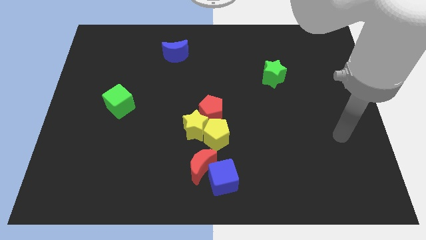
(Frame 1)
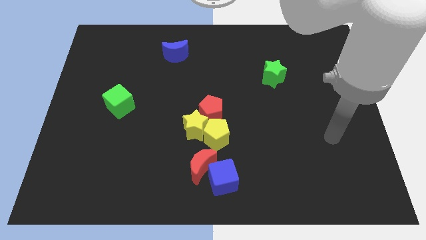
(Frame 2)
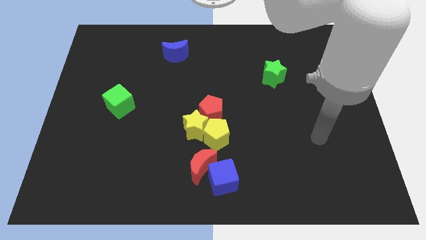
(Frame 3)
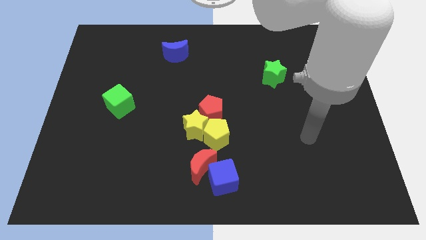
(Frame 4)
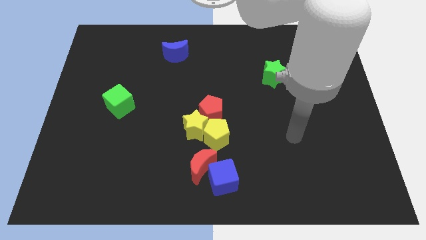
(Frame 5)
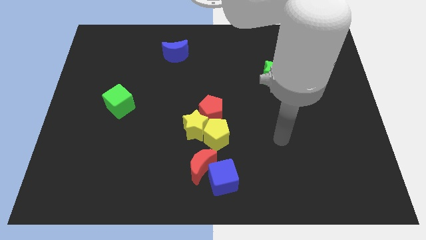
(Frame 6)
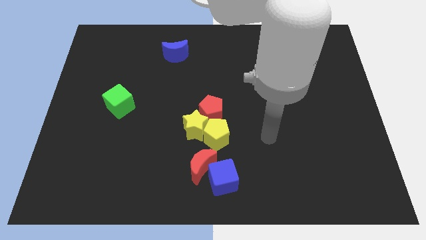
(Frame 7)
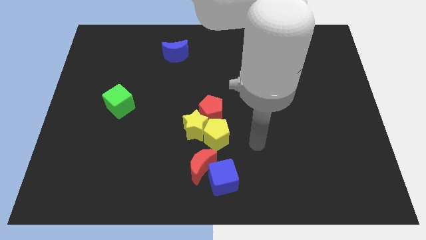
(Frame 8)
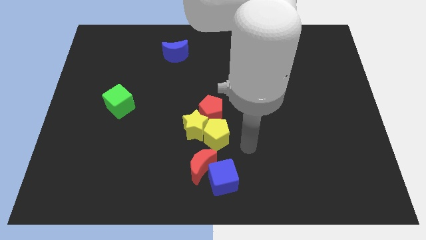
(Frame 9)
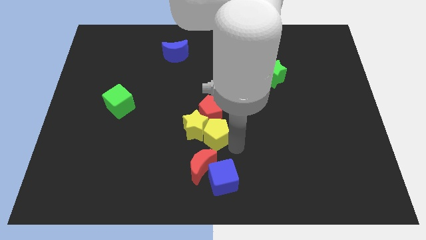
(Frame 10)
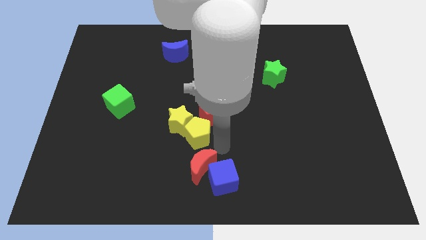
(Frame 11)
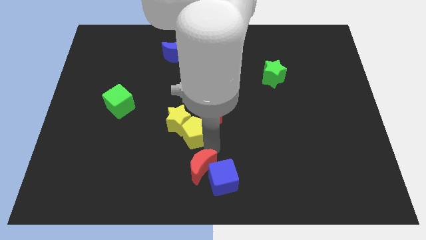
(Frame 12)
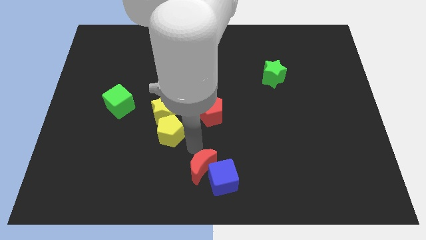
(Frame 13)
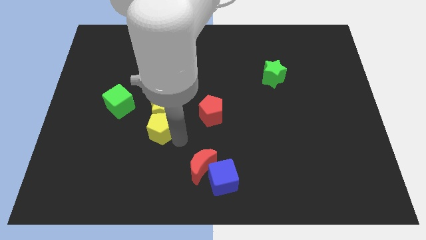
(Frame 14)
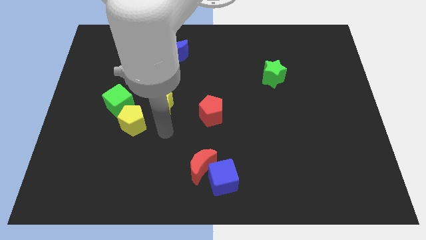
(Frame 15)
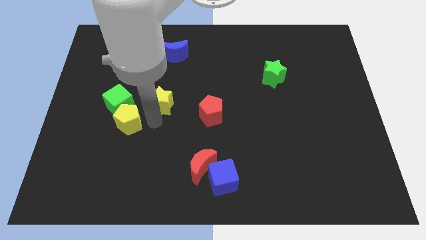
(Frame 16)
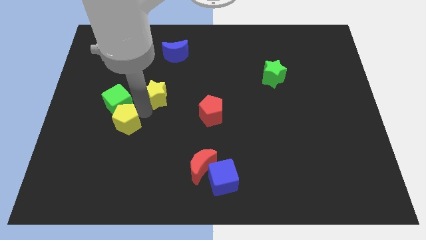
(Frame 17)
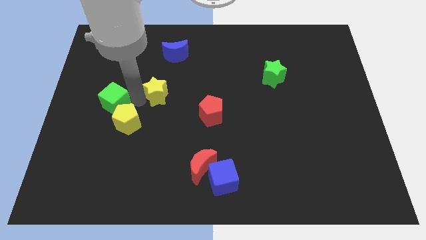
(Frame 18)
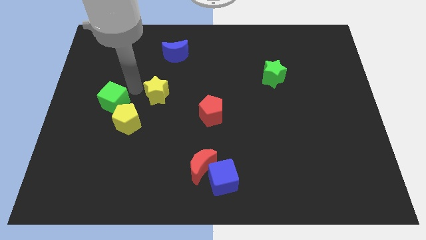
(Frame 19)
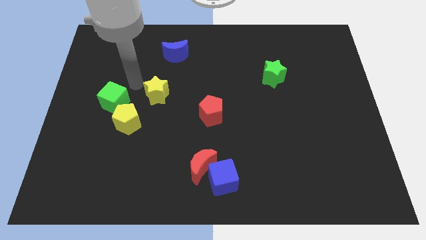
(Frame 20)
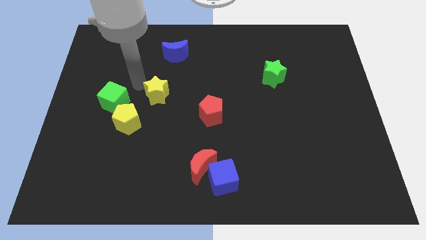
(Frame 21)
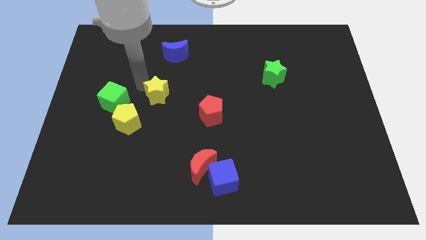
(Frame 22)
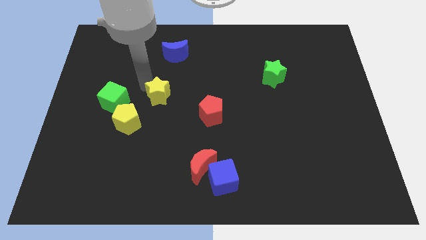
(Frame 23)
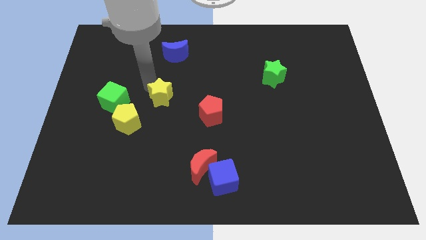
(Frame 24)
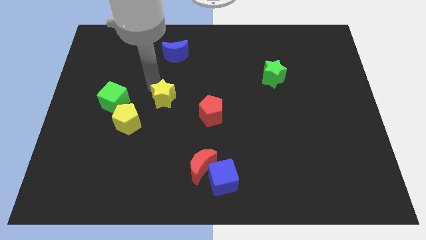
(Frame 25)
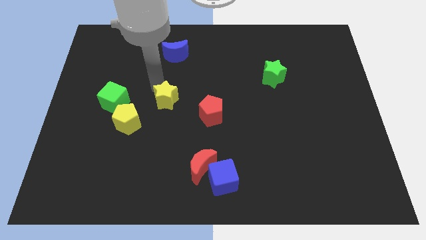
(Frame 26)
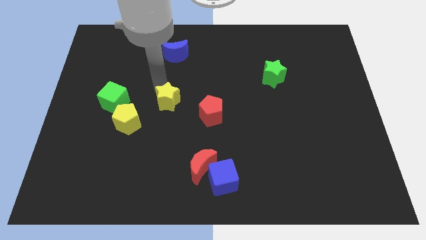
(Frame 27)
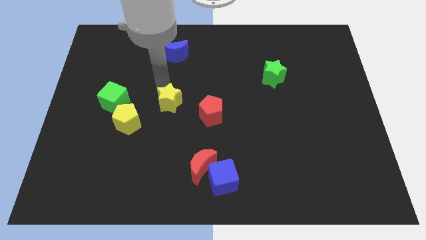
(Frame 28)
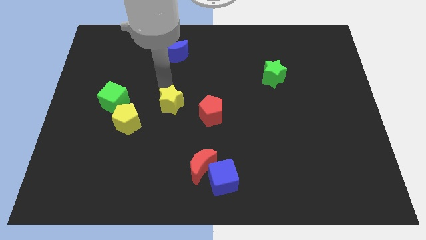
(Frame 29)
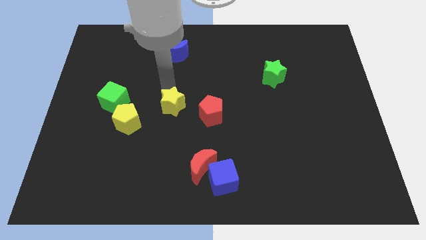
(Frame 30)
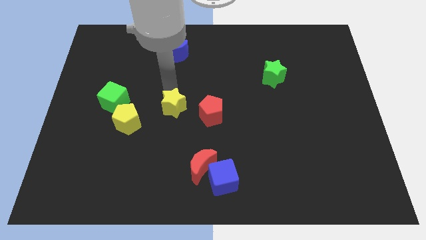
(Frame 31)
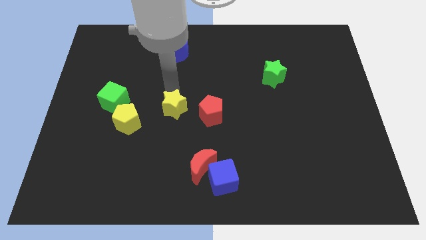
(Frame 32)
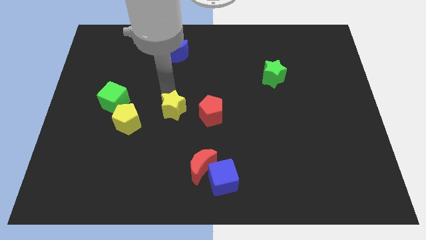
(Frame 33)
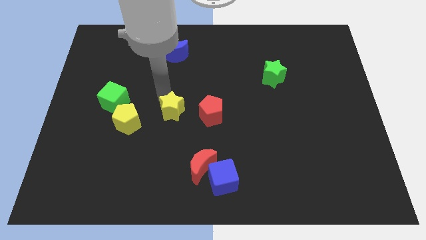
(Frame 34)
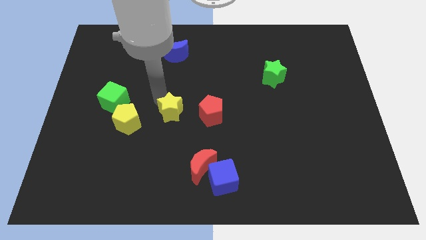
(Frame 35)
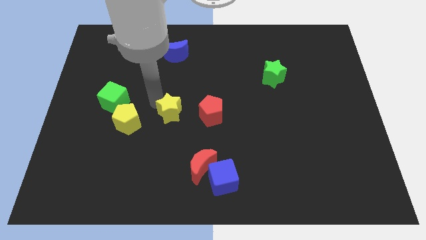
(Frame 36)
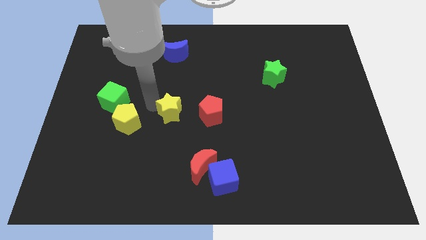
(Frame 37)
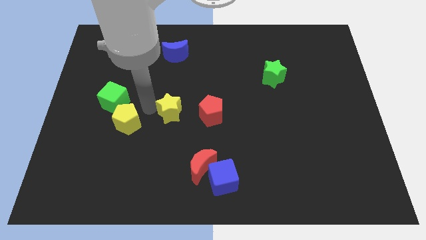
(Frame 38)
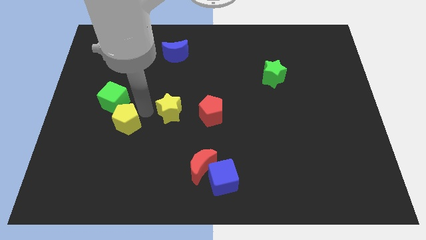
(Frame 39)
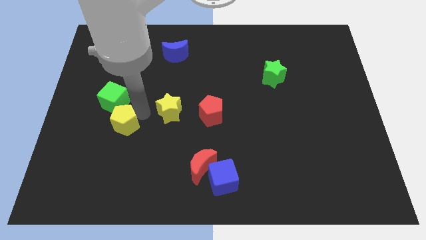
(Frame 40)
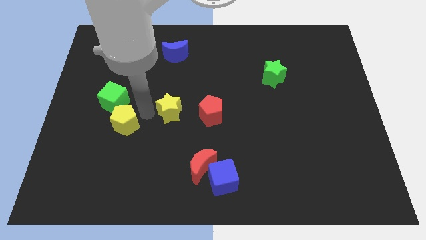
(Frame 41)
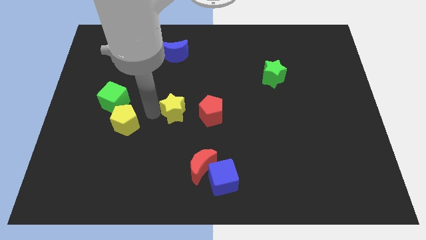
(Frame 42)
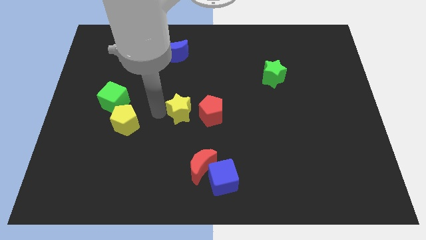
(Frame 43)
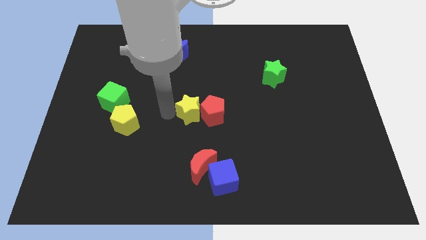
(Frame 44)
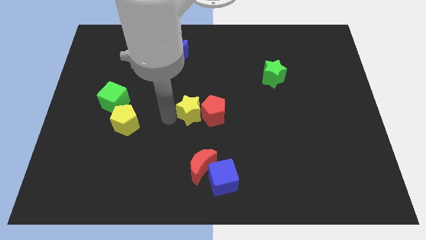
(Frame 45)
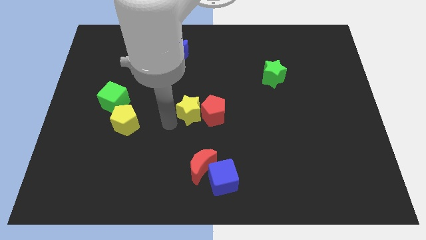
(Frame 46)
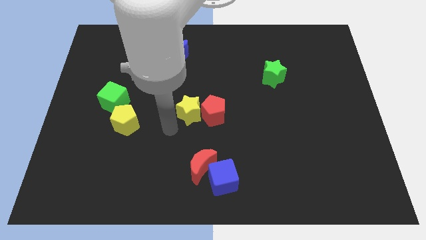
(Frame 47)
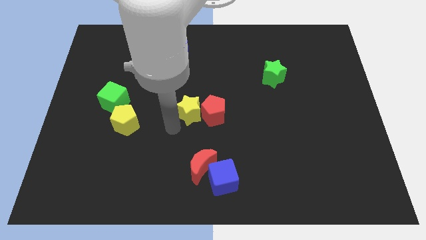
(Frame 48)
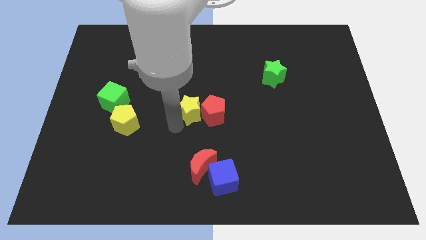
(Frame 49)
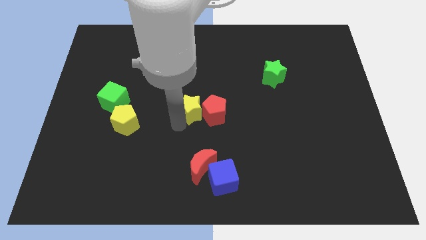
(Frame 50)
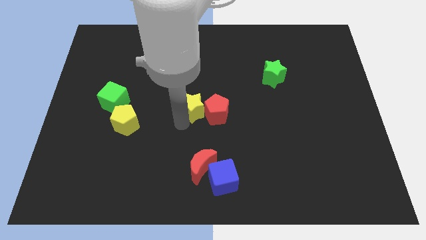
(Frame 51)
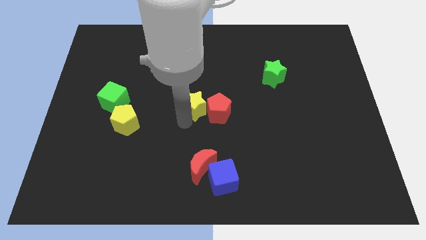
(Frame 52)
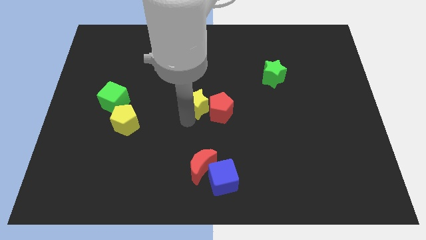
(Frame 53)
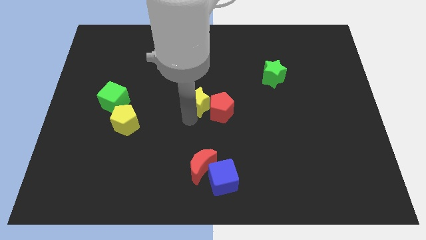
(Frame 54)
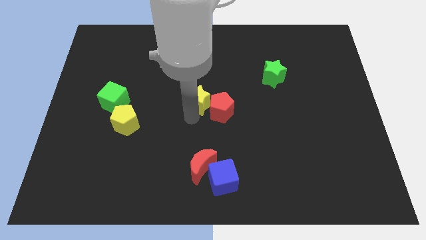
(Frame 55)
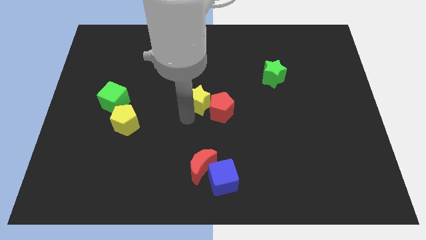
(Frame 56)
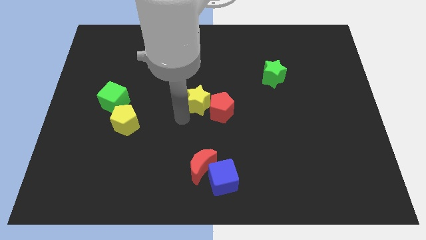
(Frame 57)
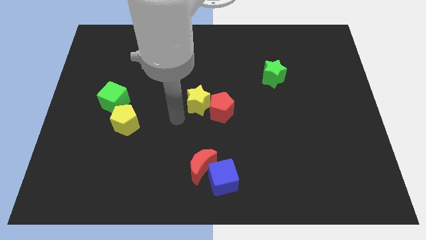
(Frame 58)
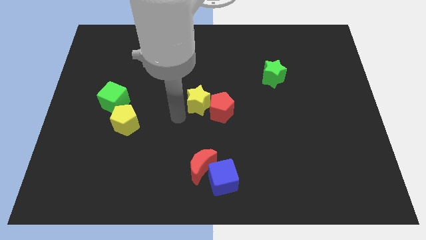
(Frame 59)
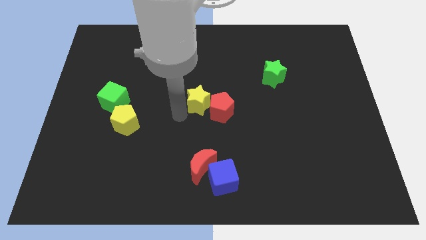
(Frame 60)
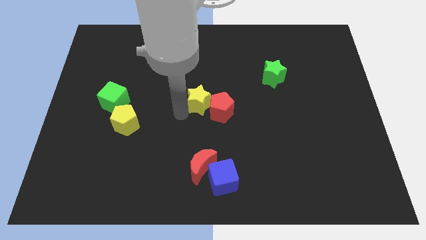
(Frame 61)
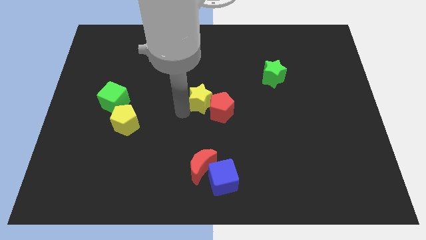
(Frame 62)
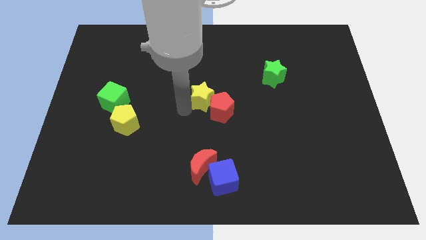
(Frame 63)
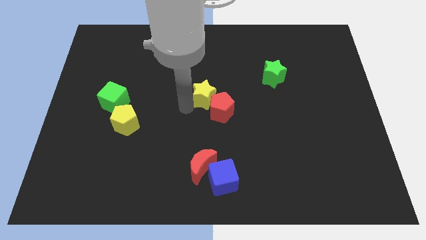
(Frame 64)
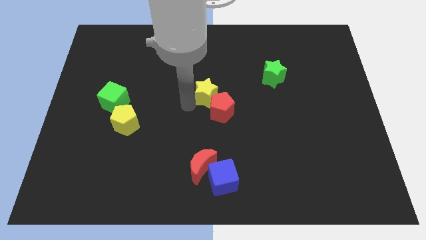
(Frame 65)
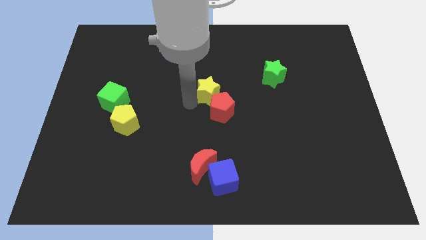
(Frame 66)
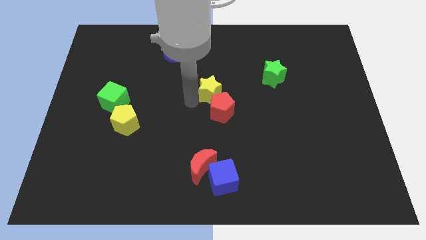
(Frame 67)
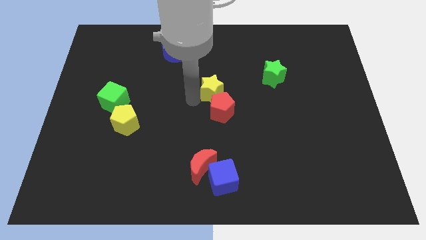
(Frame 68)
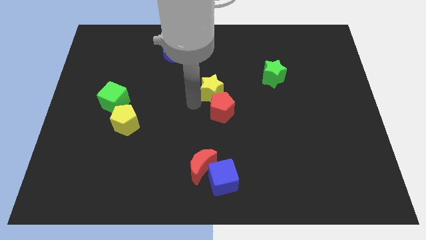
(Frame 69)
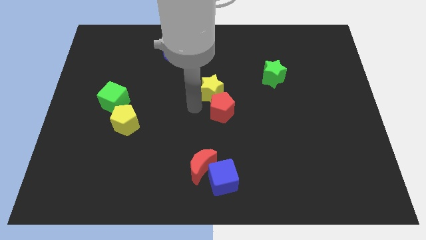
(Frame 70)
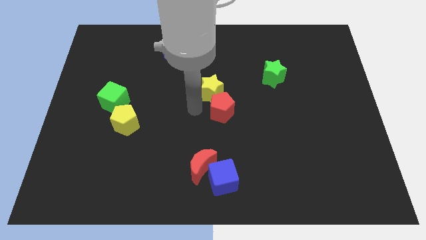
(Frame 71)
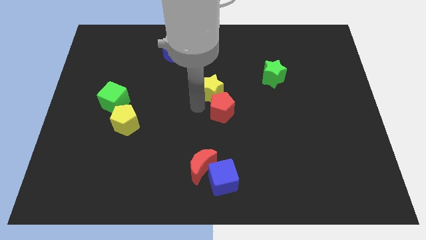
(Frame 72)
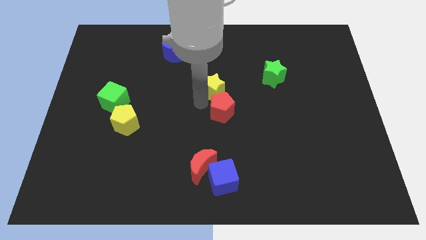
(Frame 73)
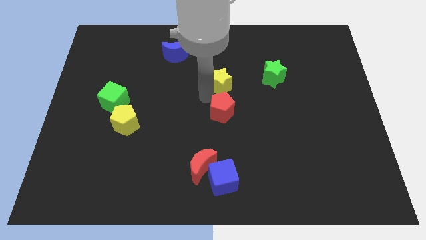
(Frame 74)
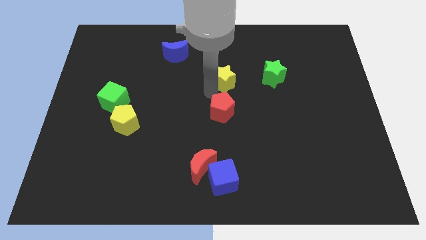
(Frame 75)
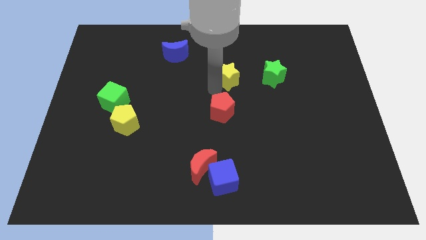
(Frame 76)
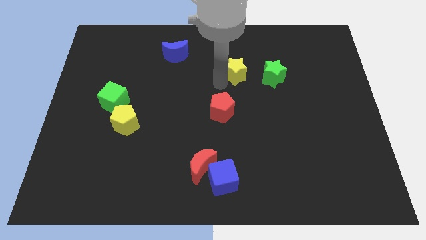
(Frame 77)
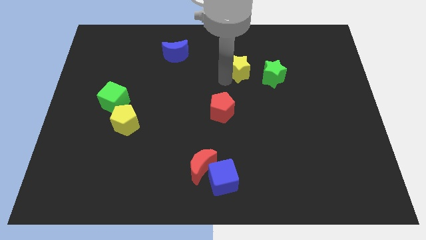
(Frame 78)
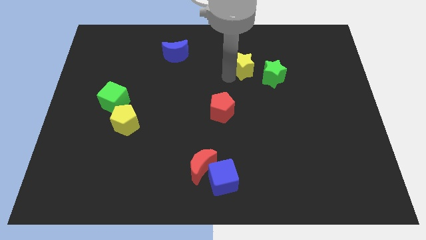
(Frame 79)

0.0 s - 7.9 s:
push the yellow star diagonally upwards and to the right

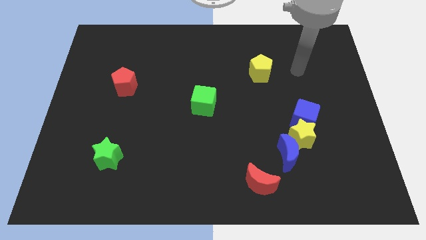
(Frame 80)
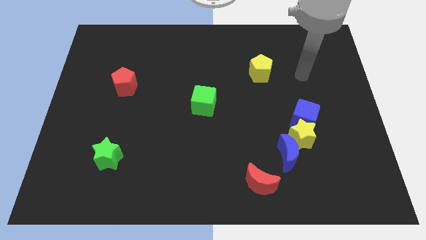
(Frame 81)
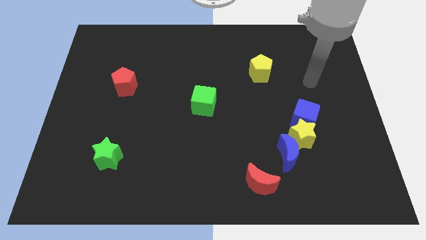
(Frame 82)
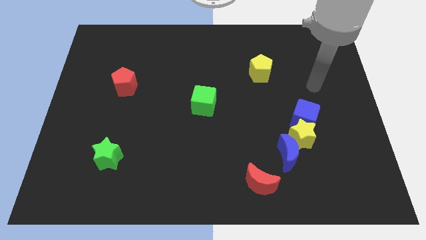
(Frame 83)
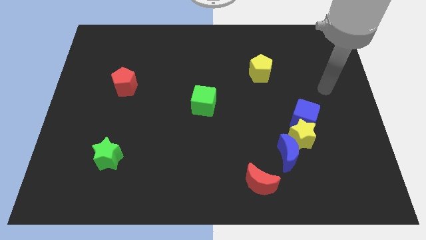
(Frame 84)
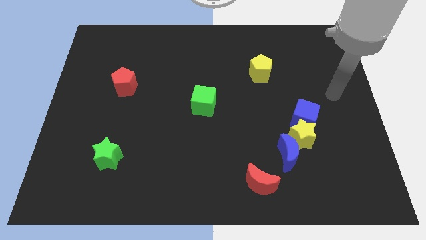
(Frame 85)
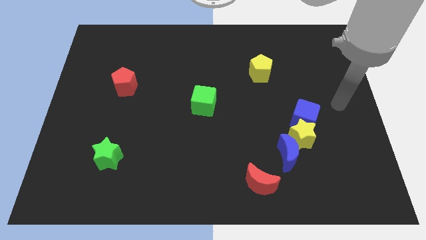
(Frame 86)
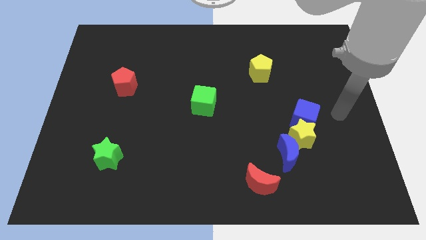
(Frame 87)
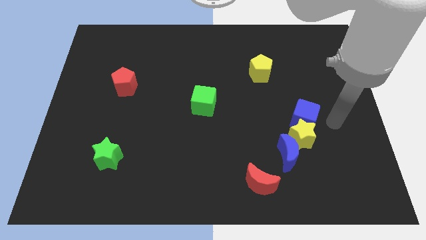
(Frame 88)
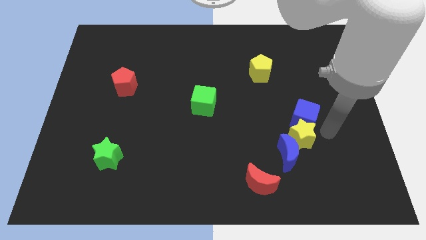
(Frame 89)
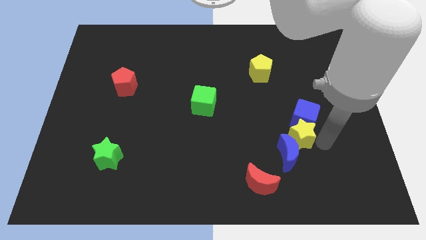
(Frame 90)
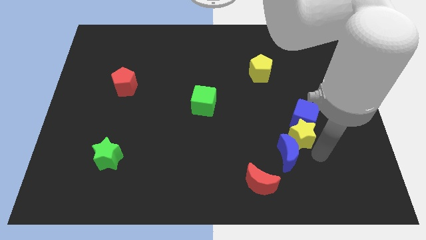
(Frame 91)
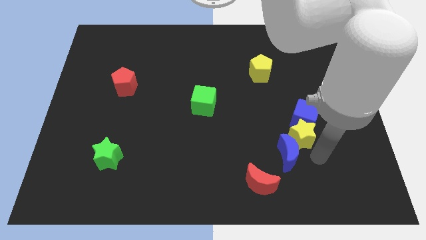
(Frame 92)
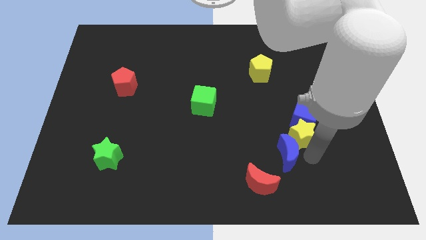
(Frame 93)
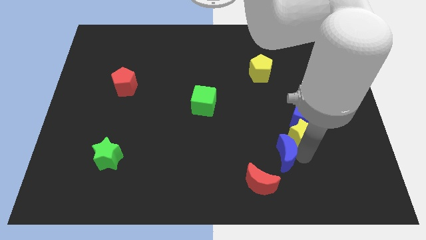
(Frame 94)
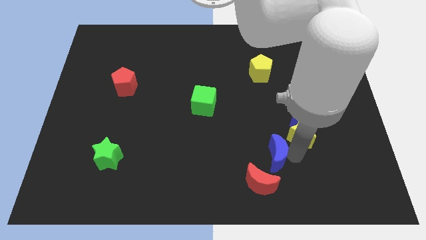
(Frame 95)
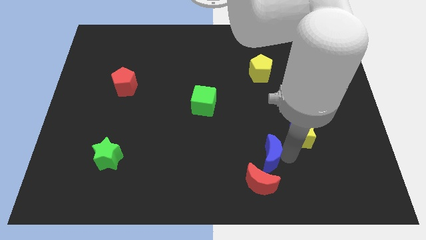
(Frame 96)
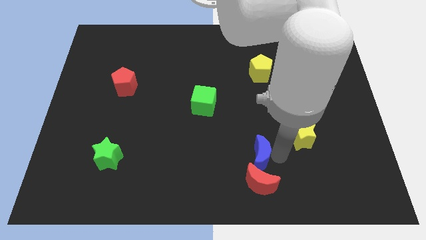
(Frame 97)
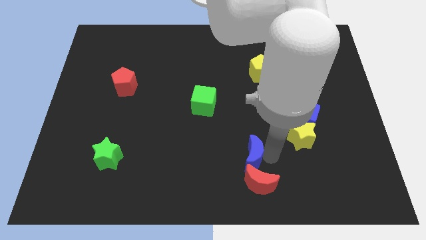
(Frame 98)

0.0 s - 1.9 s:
push the blue moon to the left a little
